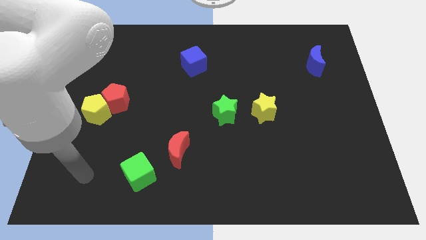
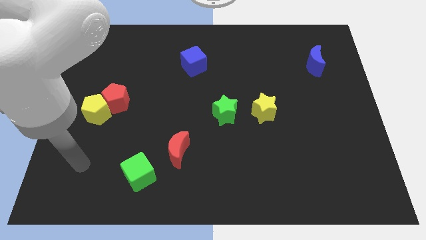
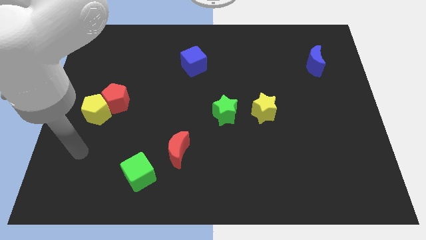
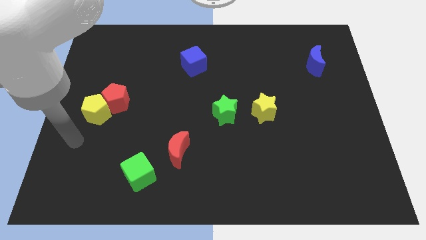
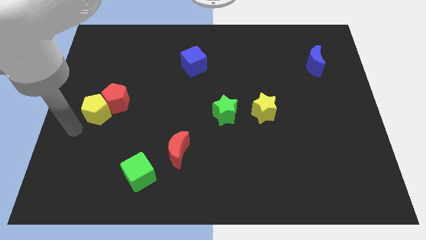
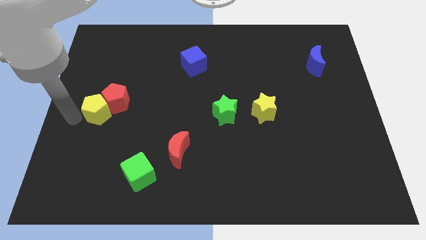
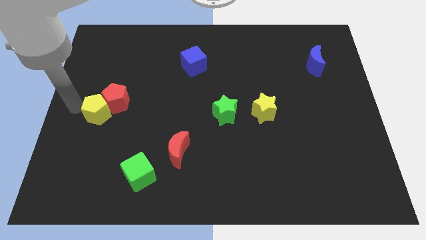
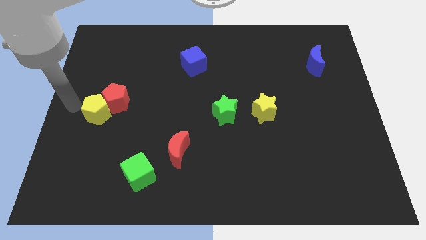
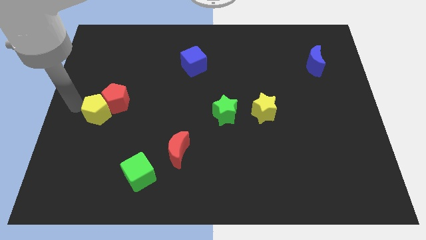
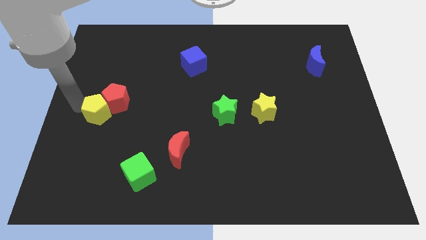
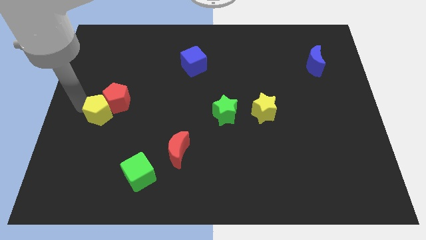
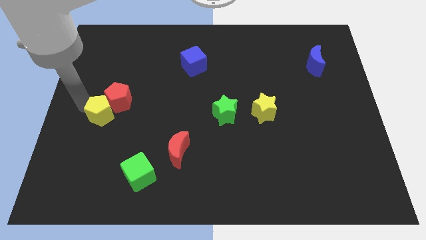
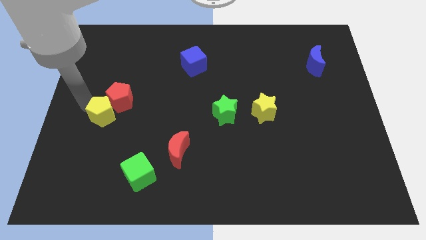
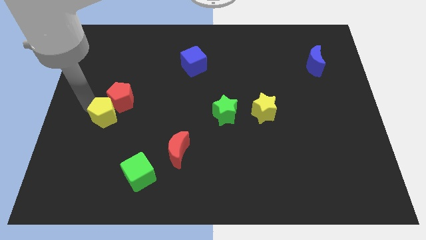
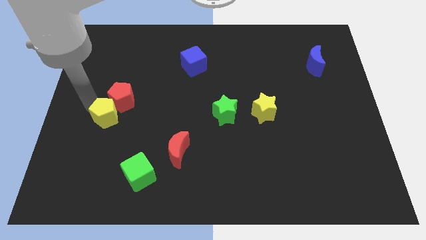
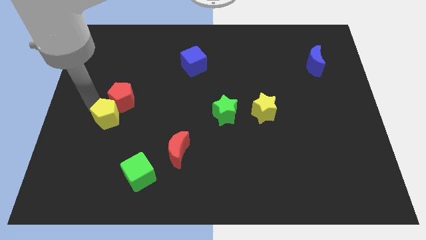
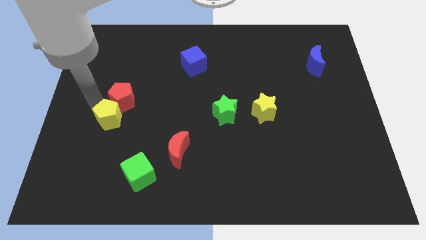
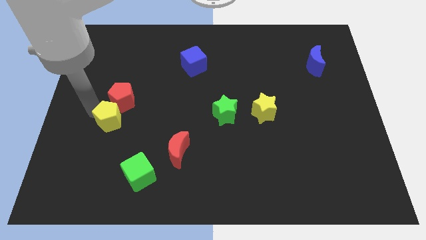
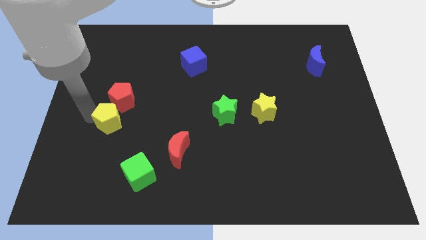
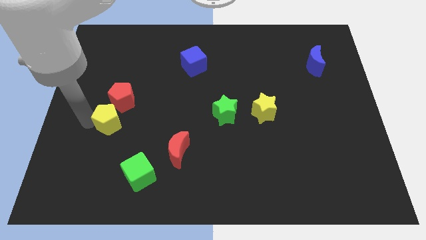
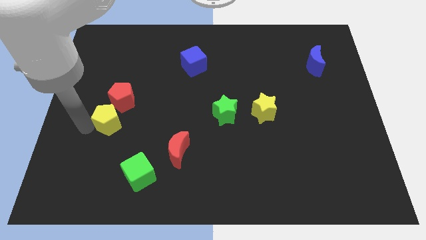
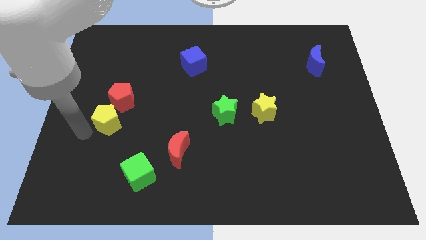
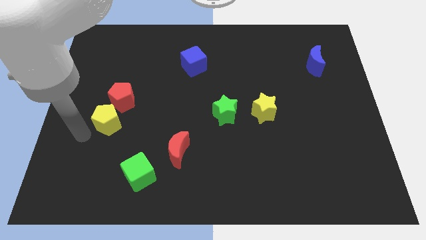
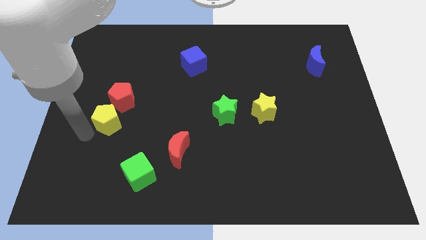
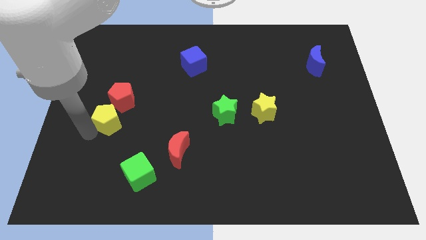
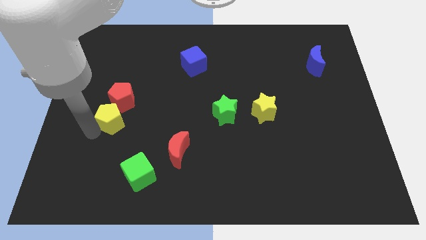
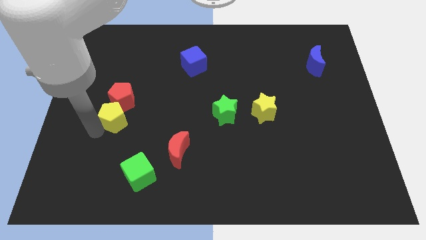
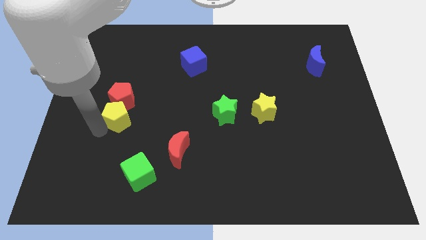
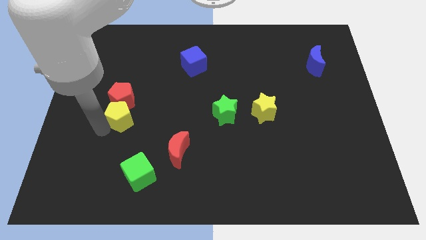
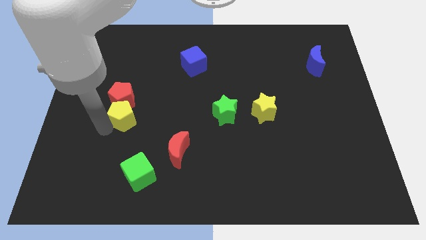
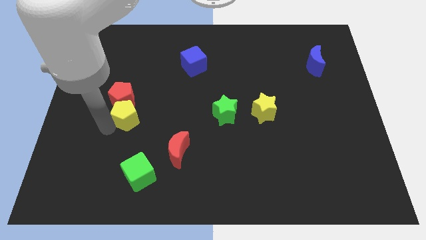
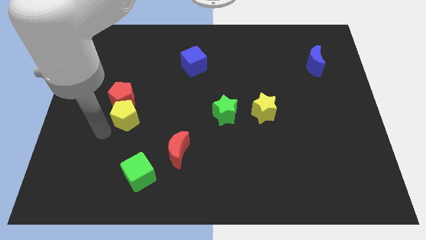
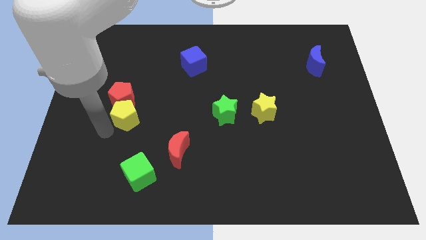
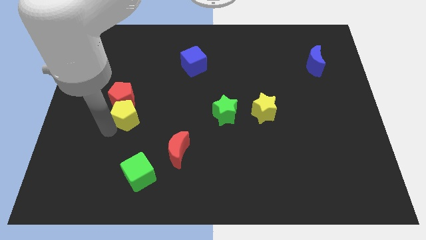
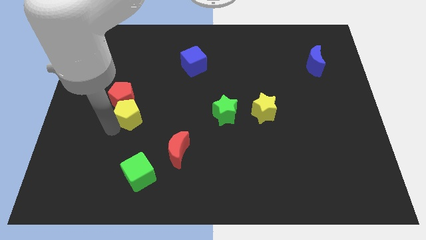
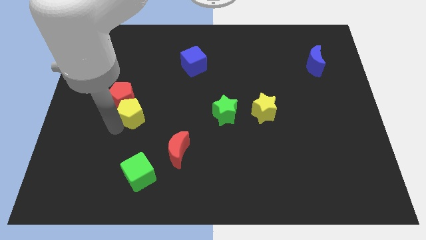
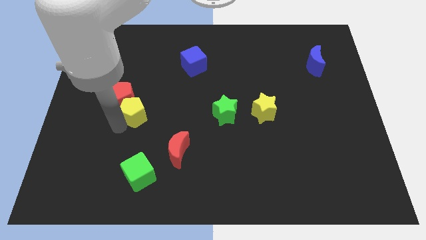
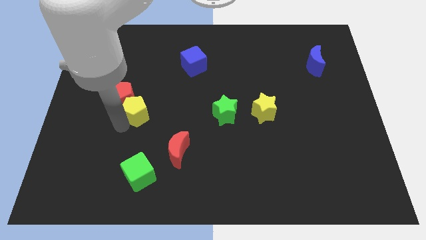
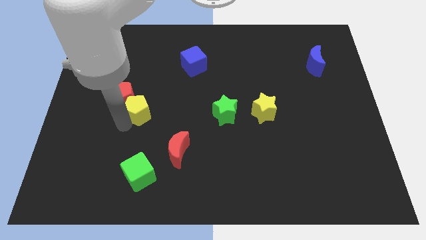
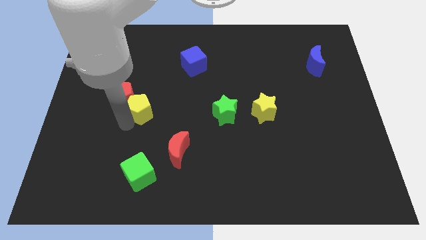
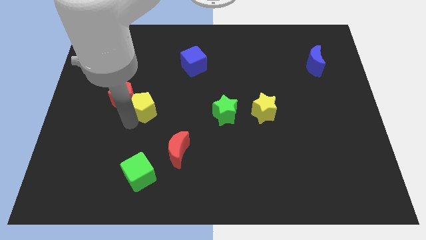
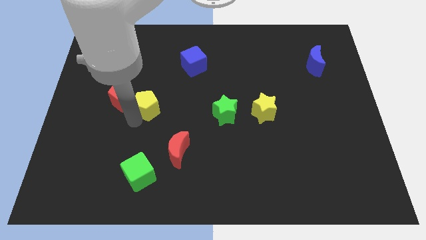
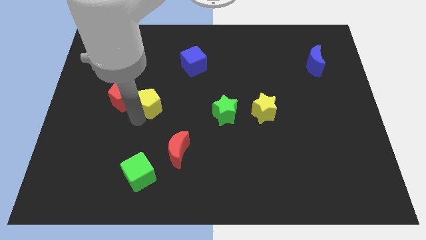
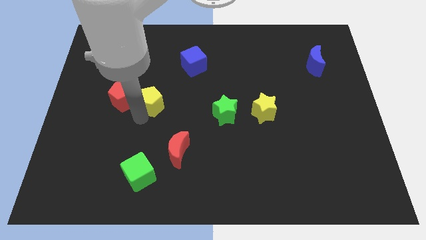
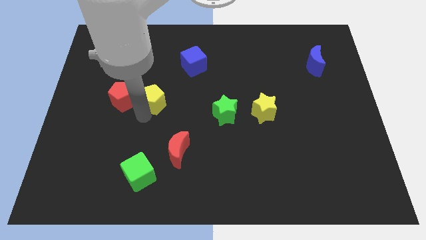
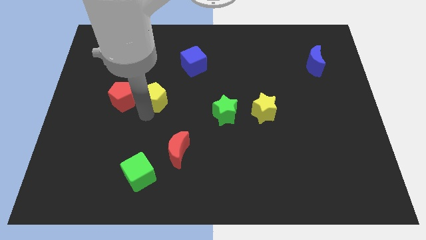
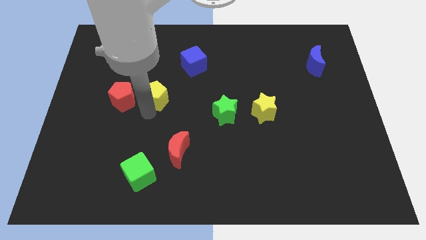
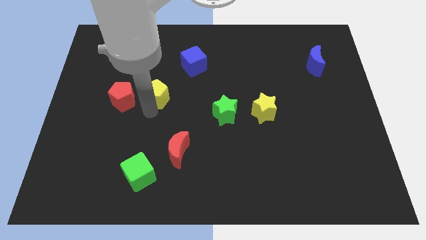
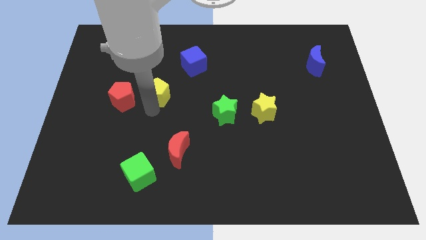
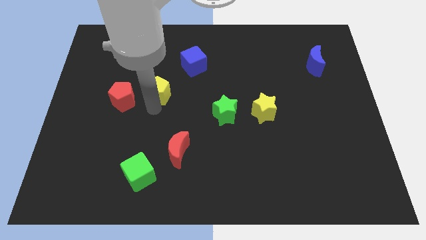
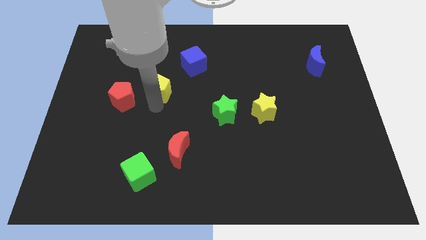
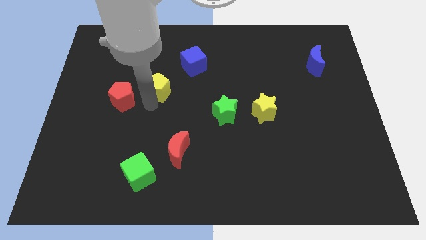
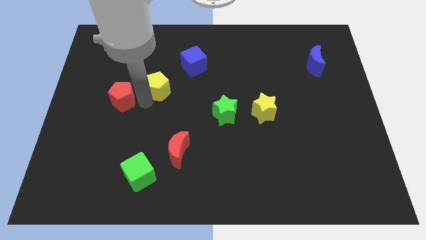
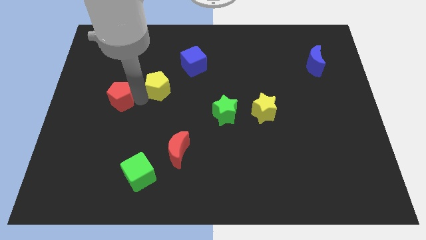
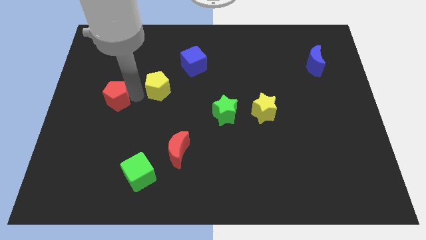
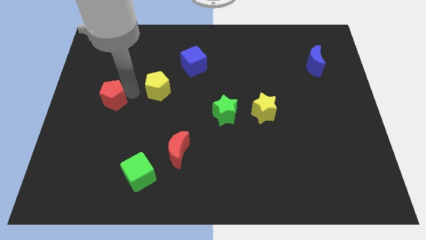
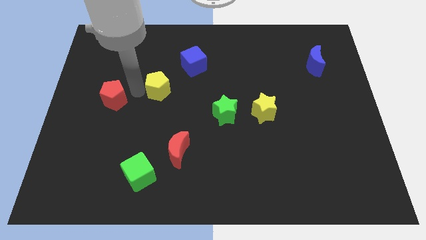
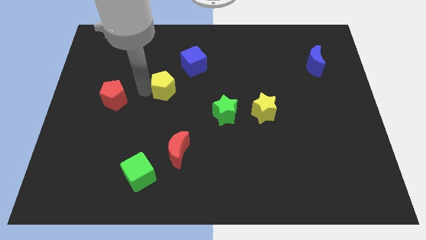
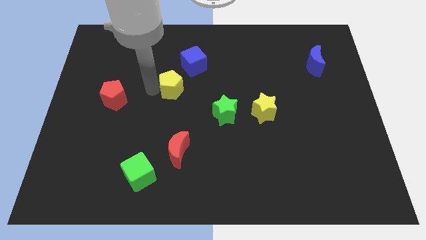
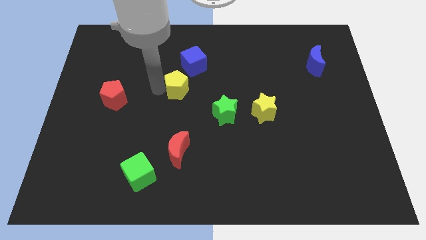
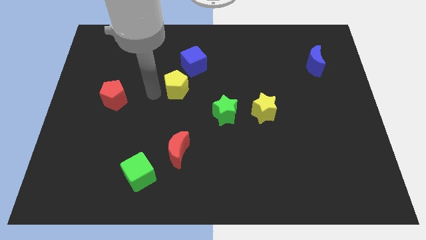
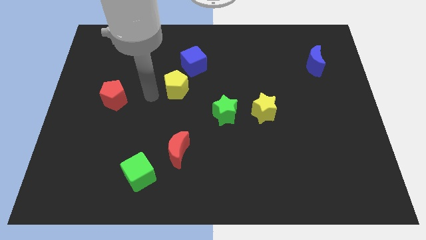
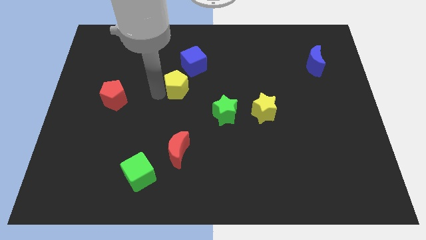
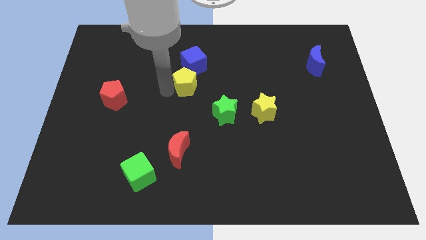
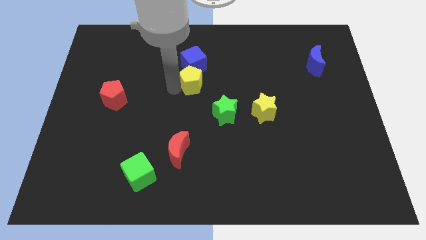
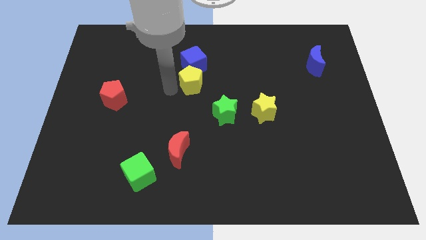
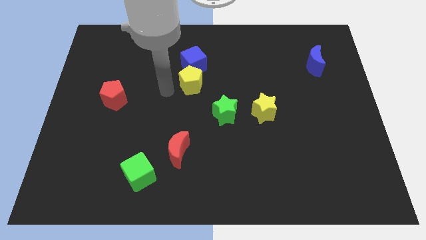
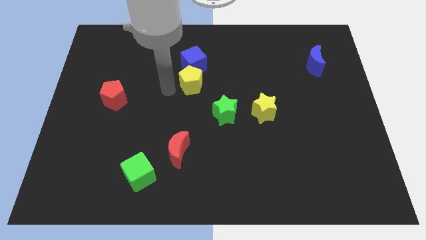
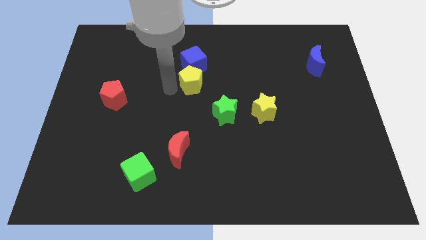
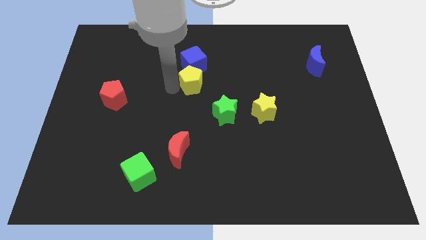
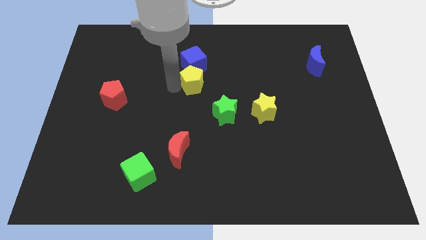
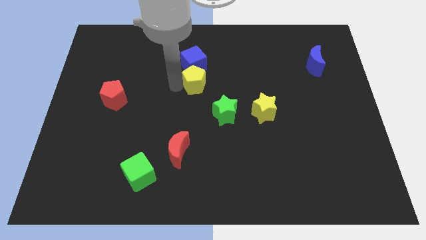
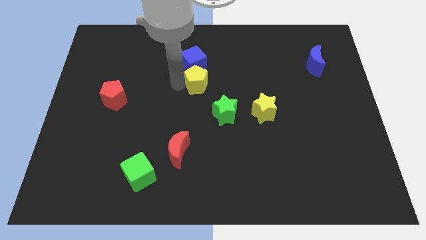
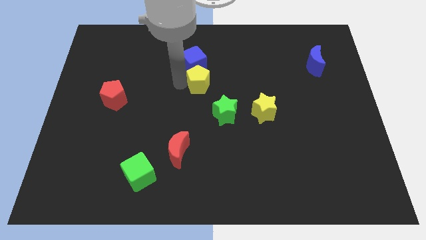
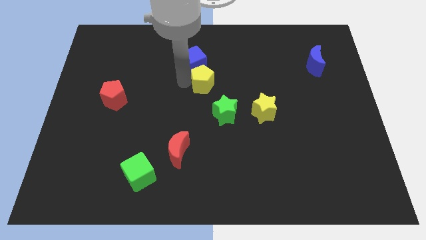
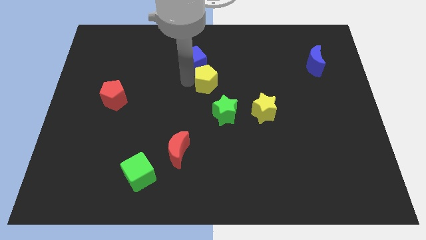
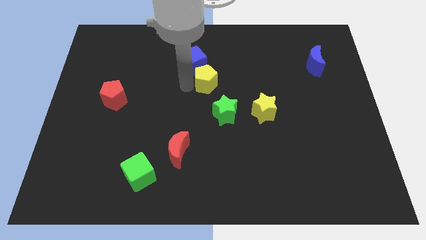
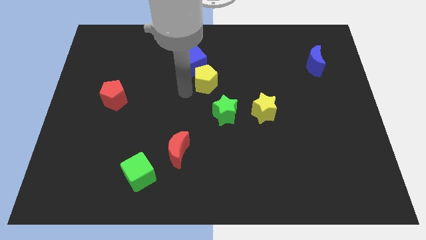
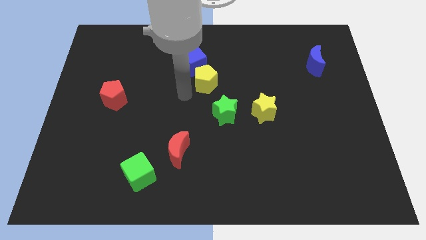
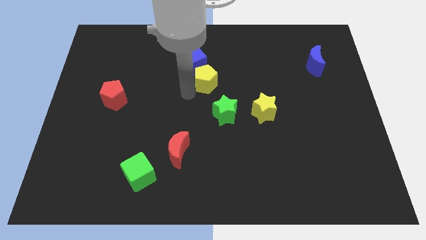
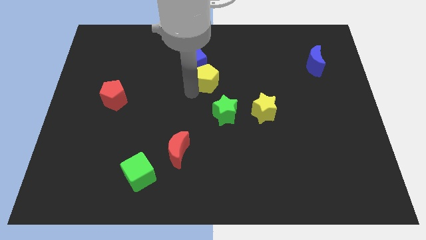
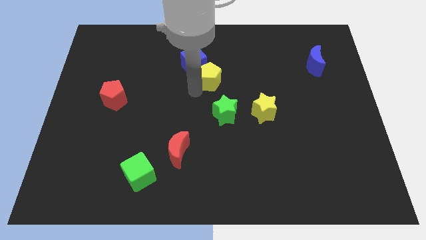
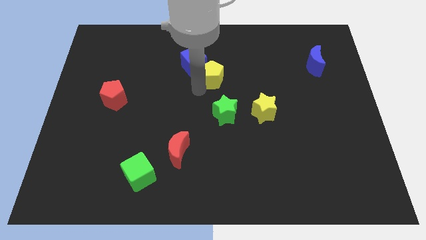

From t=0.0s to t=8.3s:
slide the yellow pentagon to the right side of the blue cube
